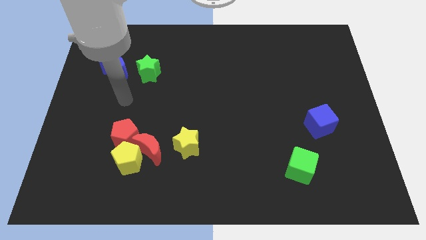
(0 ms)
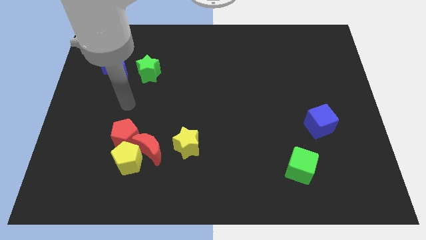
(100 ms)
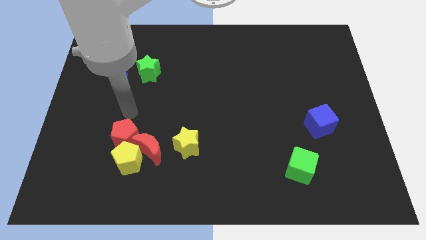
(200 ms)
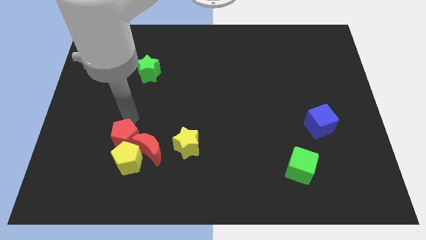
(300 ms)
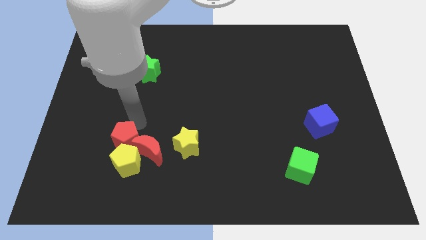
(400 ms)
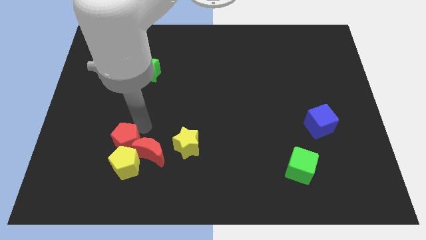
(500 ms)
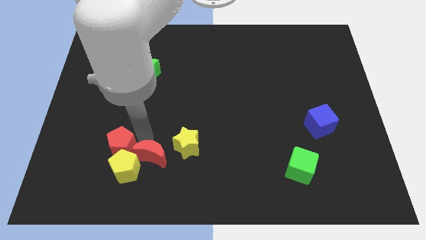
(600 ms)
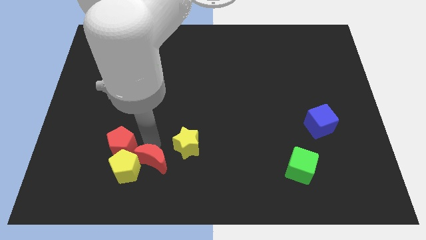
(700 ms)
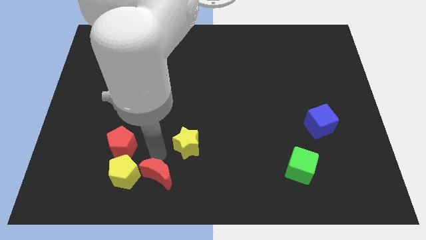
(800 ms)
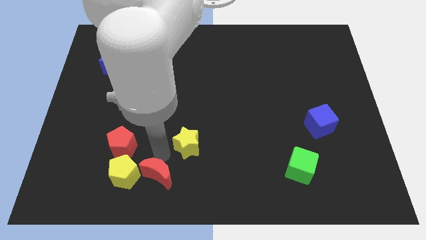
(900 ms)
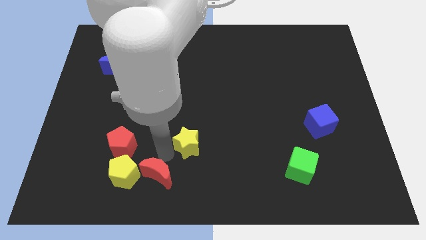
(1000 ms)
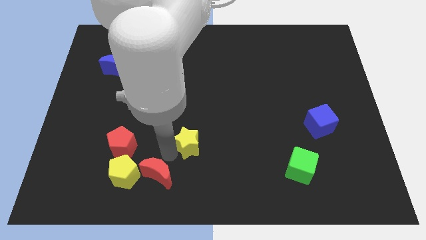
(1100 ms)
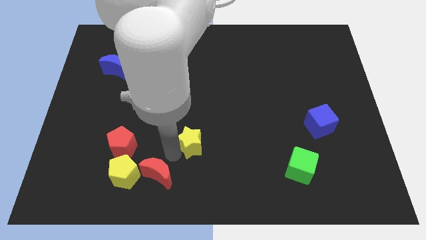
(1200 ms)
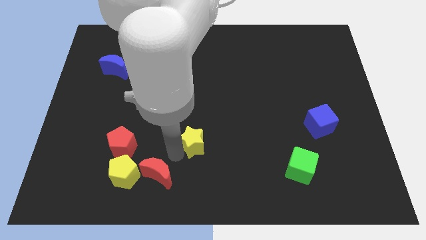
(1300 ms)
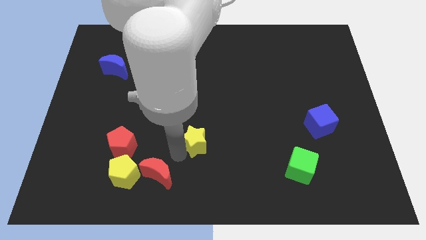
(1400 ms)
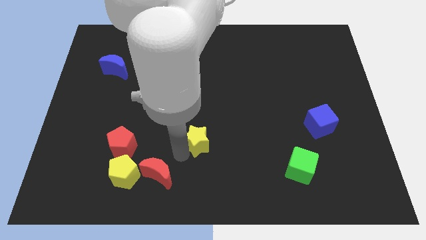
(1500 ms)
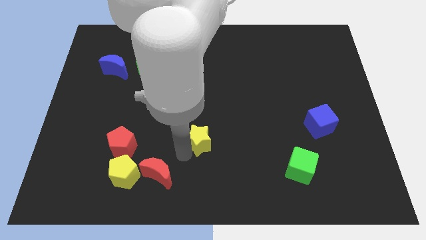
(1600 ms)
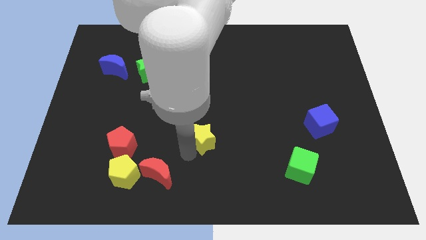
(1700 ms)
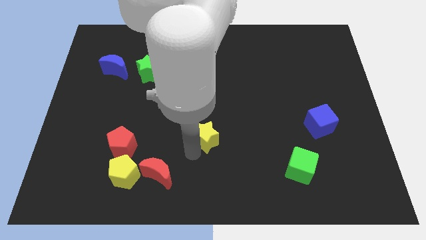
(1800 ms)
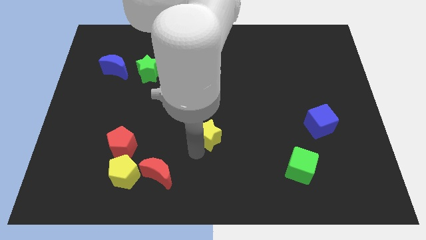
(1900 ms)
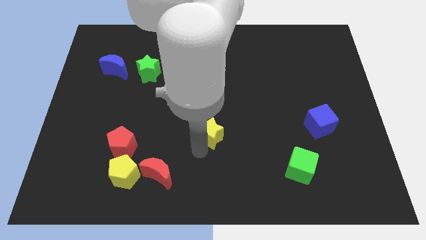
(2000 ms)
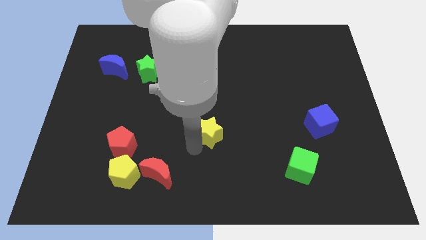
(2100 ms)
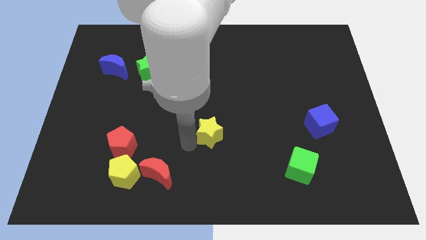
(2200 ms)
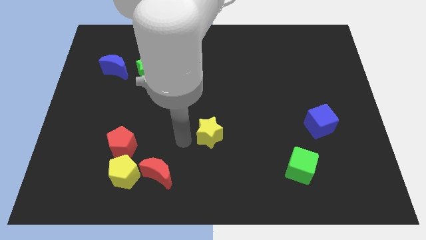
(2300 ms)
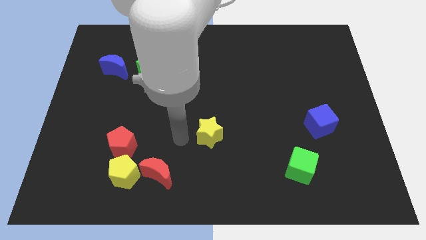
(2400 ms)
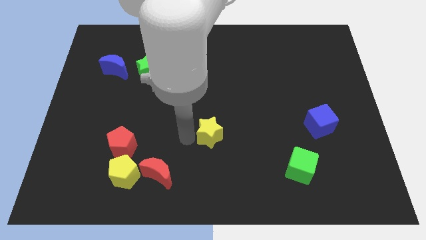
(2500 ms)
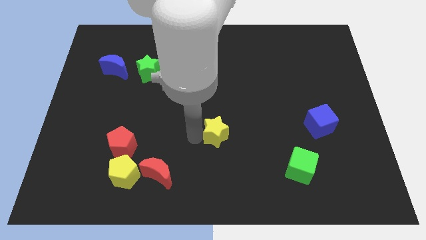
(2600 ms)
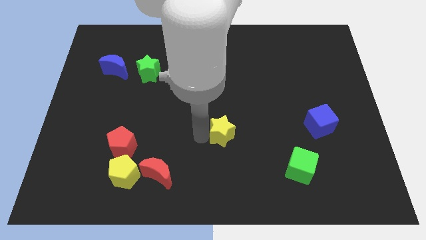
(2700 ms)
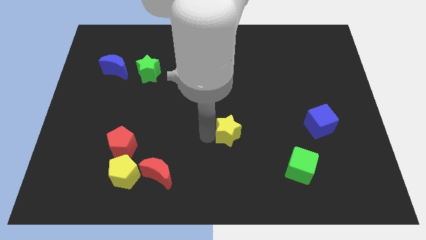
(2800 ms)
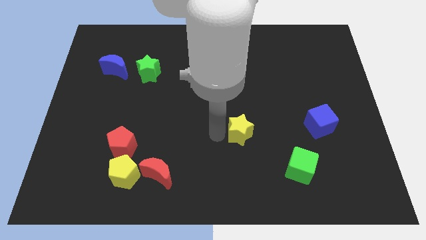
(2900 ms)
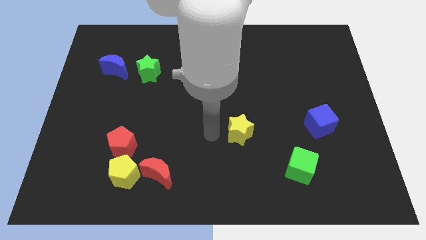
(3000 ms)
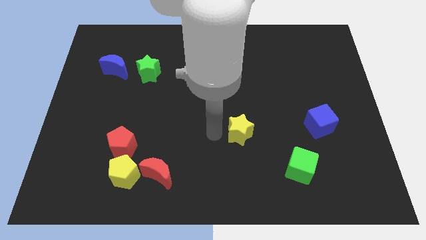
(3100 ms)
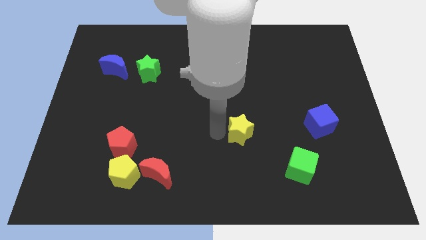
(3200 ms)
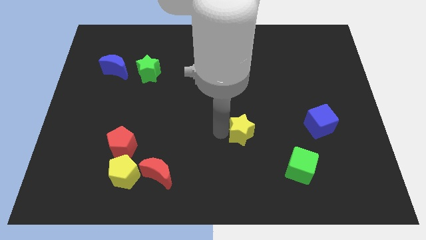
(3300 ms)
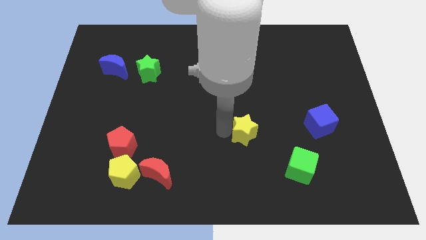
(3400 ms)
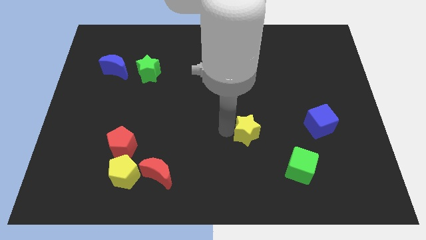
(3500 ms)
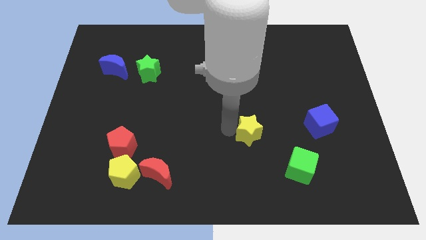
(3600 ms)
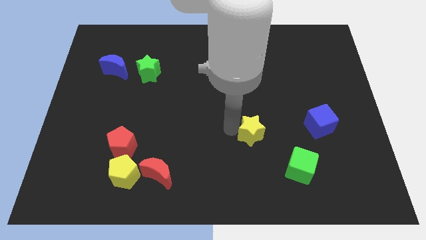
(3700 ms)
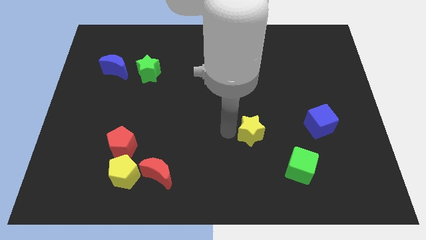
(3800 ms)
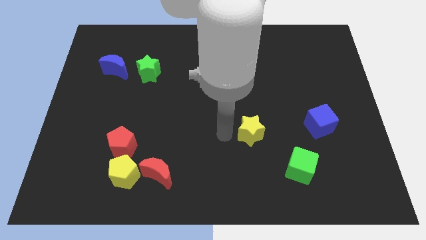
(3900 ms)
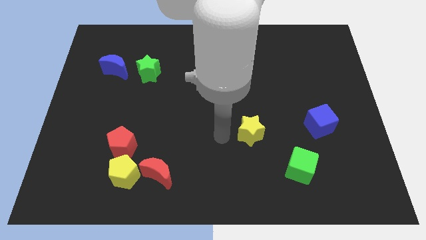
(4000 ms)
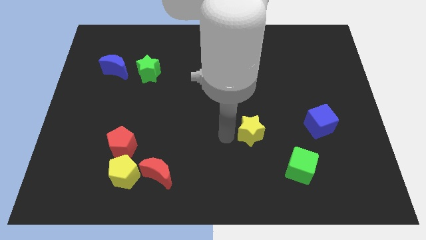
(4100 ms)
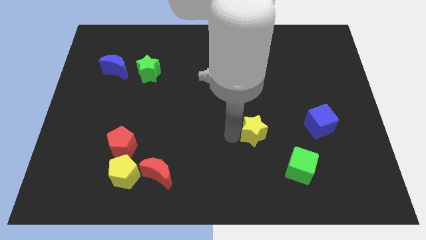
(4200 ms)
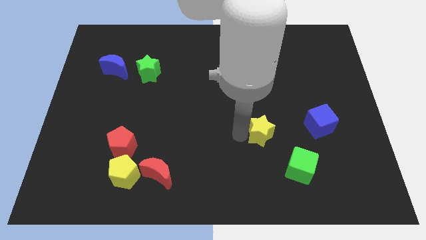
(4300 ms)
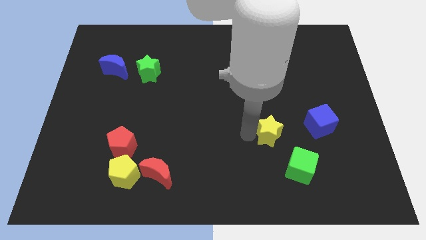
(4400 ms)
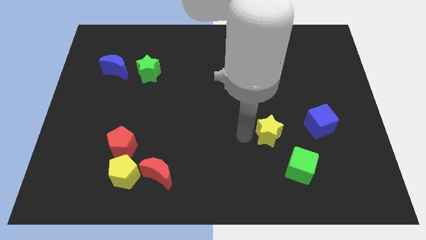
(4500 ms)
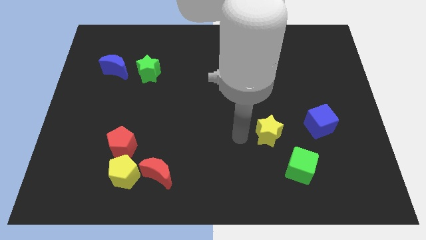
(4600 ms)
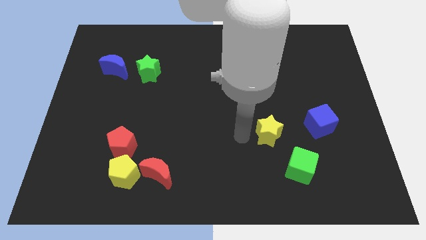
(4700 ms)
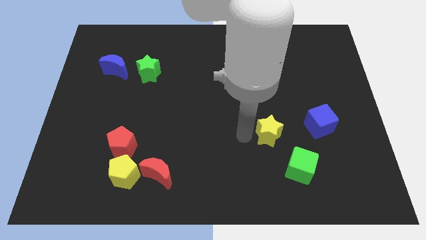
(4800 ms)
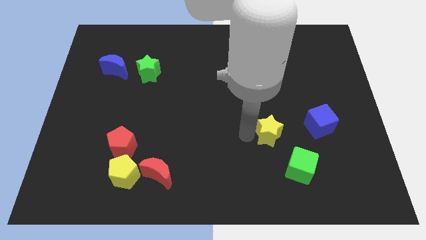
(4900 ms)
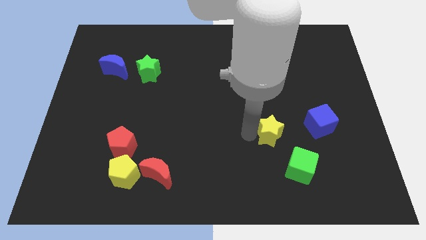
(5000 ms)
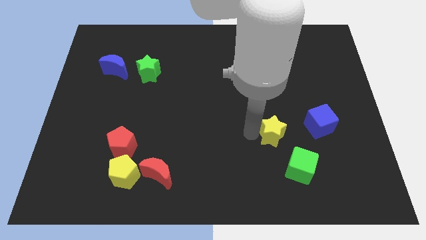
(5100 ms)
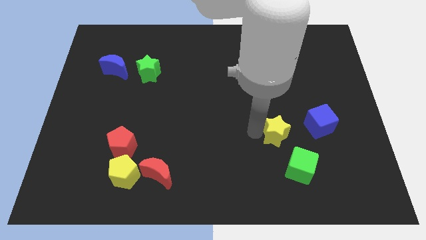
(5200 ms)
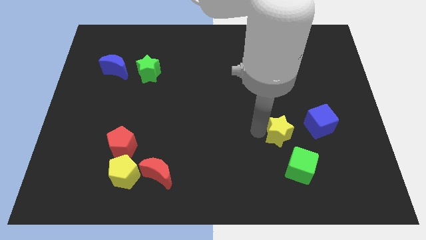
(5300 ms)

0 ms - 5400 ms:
push the yellow star to the right

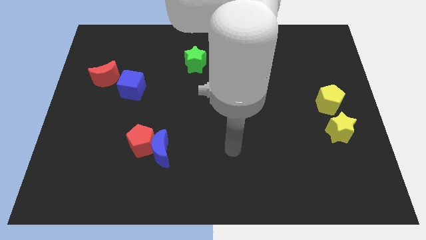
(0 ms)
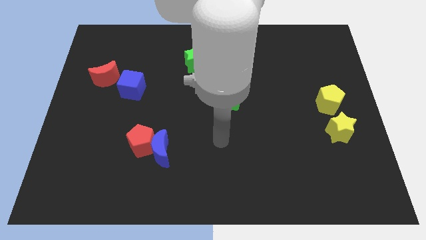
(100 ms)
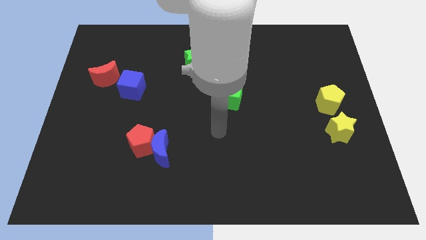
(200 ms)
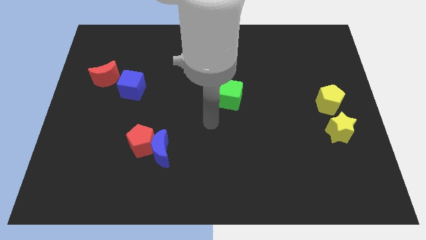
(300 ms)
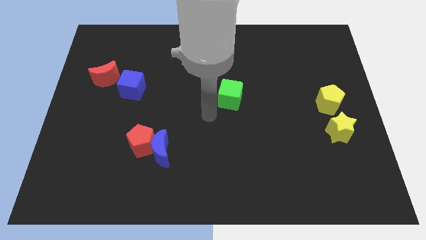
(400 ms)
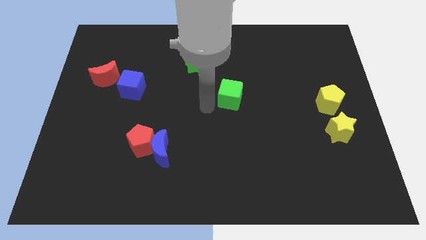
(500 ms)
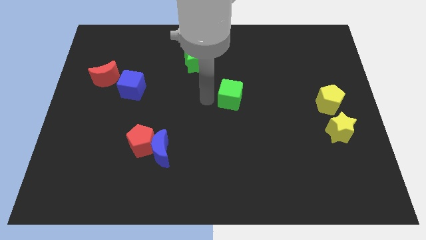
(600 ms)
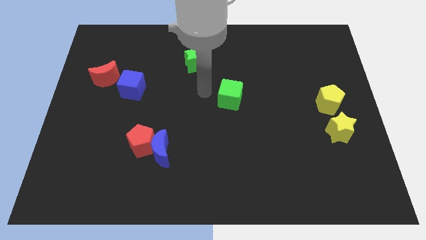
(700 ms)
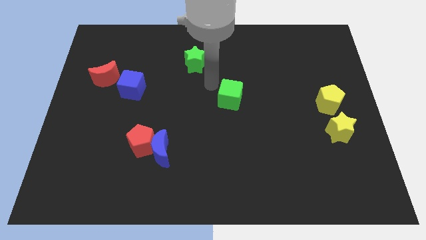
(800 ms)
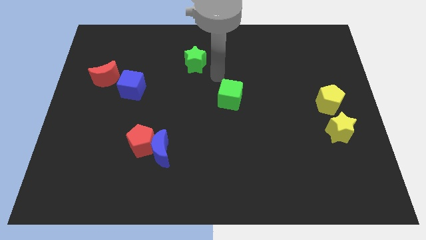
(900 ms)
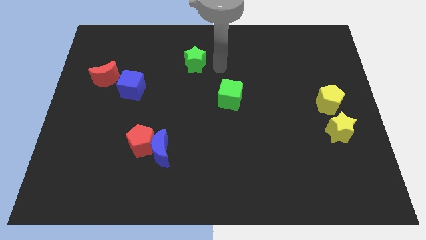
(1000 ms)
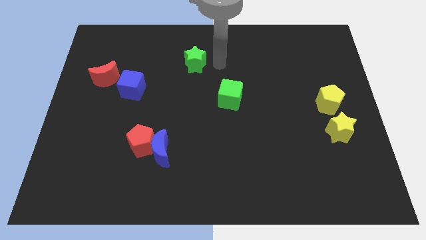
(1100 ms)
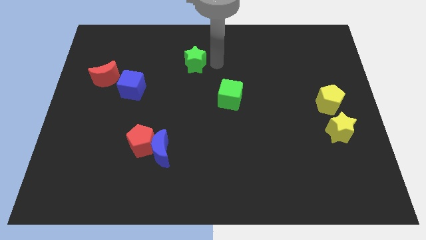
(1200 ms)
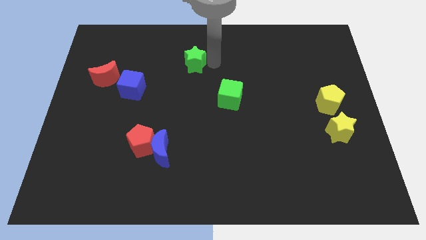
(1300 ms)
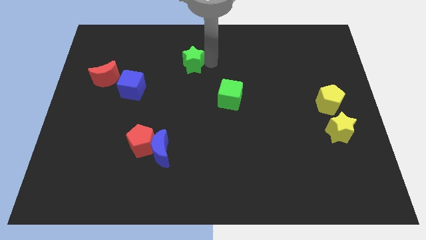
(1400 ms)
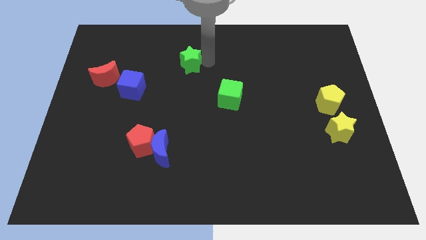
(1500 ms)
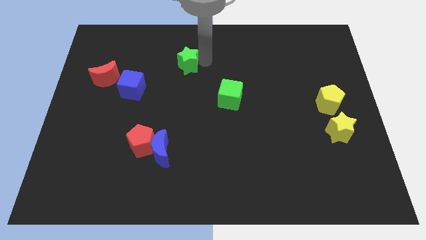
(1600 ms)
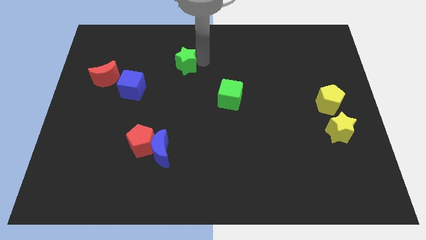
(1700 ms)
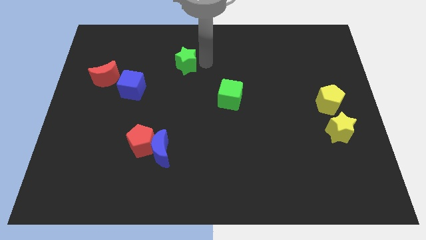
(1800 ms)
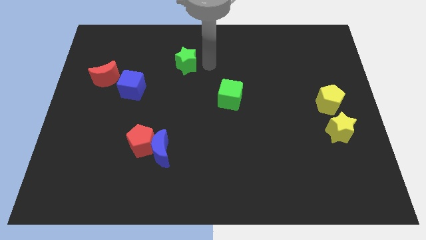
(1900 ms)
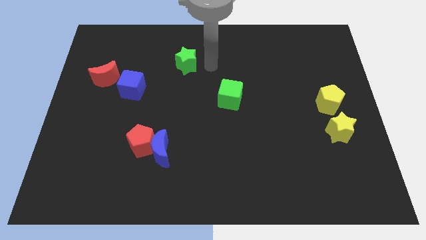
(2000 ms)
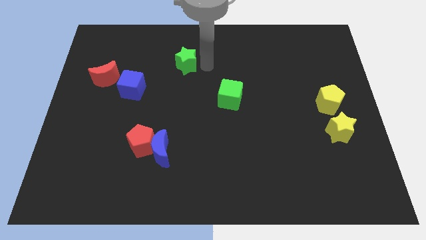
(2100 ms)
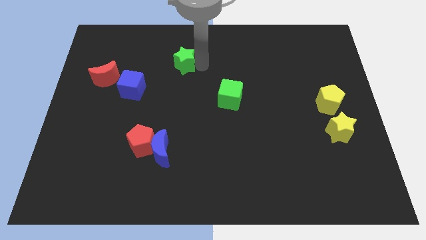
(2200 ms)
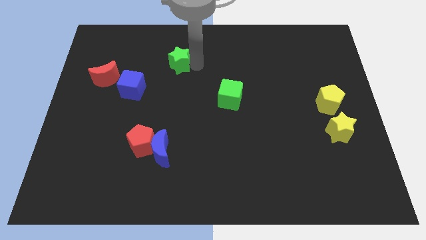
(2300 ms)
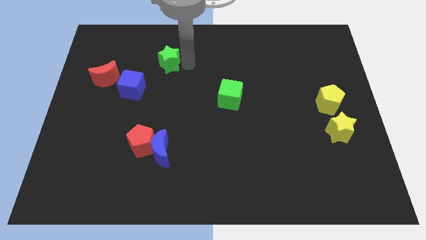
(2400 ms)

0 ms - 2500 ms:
push the green star to the left slightly
